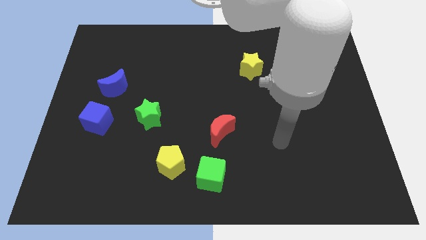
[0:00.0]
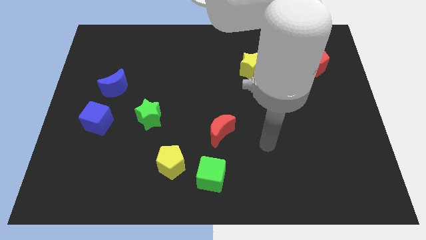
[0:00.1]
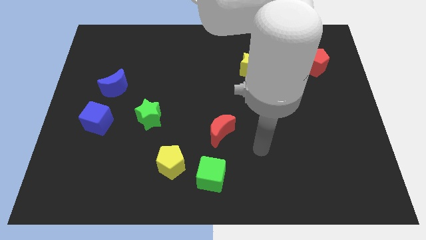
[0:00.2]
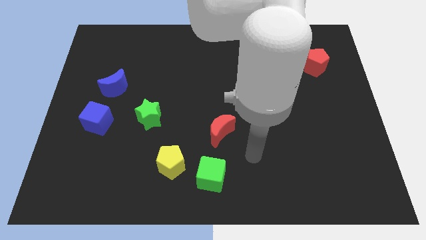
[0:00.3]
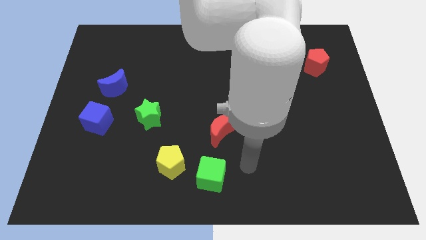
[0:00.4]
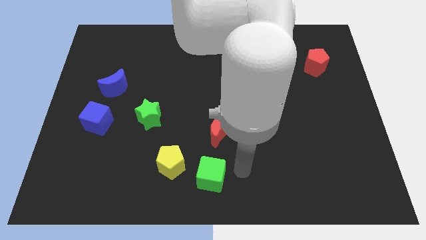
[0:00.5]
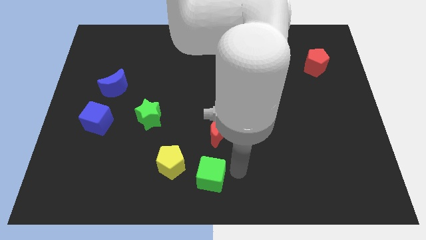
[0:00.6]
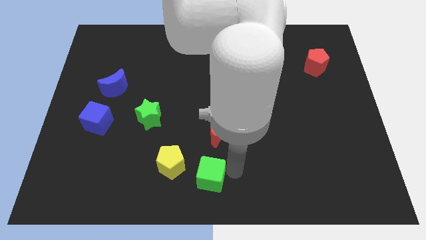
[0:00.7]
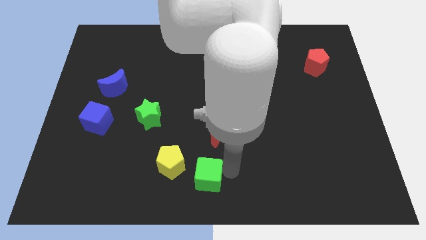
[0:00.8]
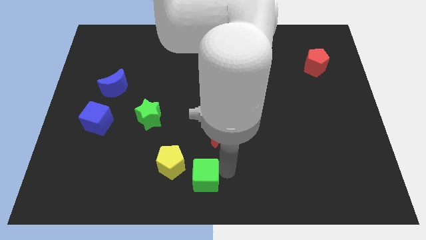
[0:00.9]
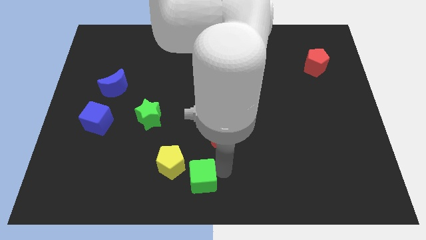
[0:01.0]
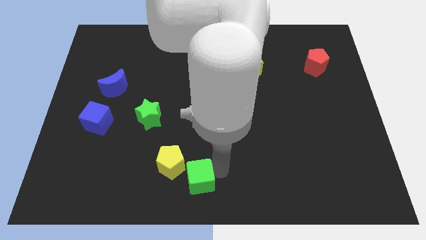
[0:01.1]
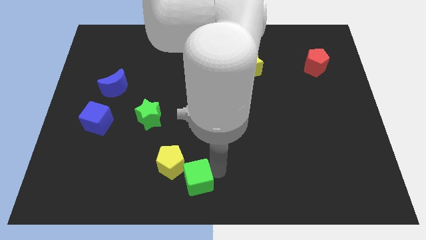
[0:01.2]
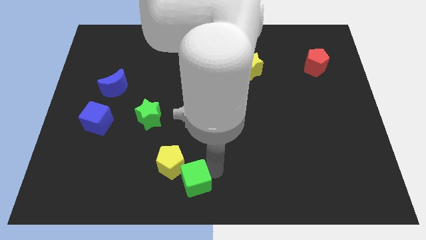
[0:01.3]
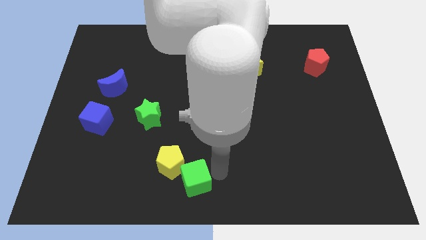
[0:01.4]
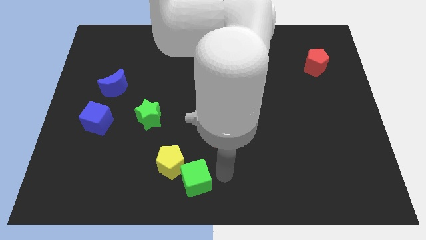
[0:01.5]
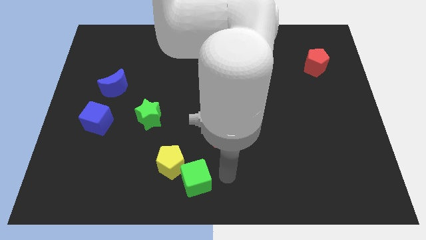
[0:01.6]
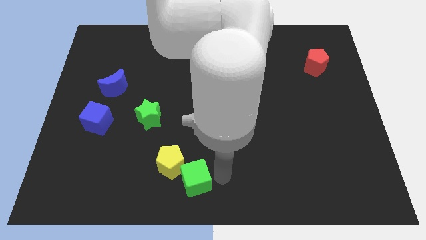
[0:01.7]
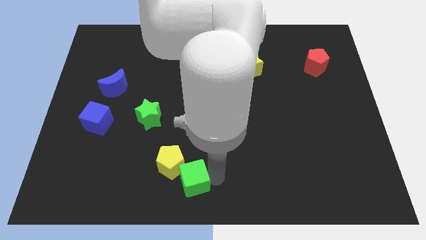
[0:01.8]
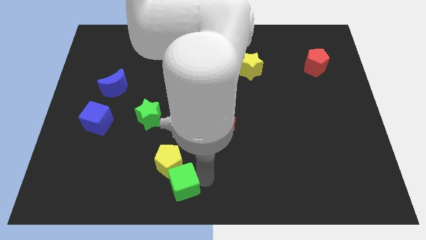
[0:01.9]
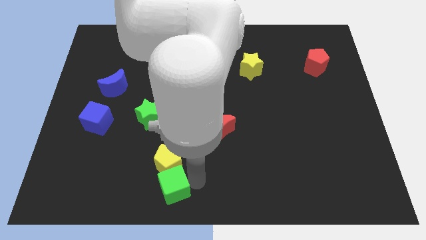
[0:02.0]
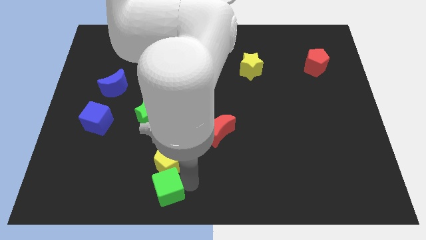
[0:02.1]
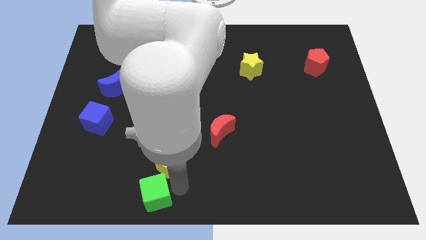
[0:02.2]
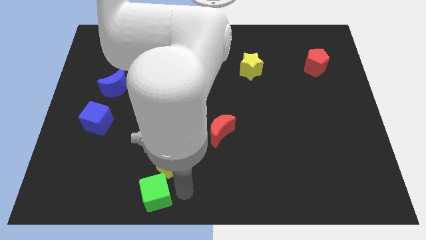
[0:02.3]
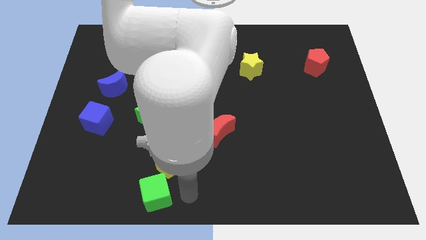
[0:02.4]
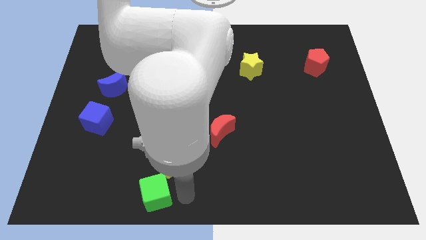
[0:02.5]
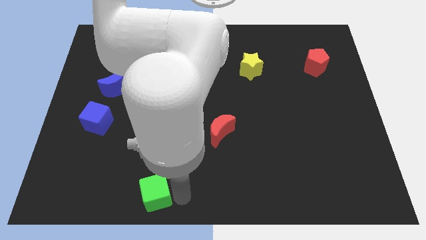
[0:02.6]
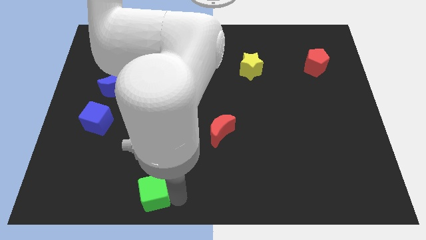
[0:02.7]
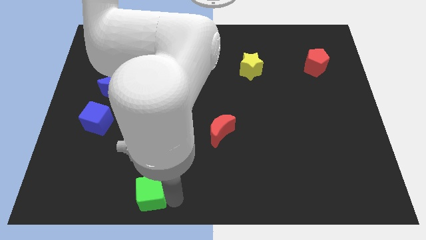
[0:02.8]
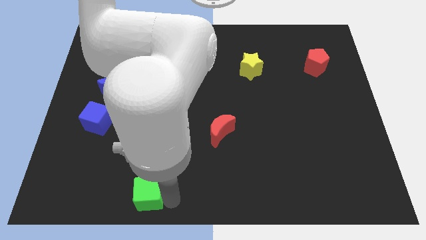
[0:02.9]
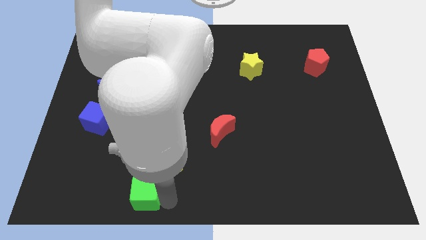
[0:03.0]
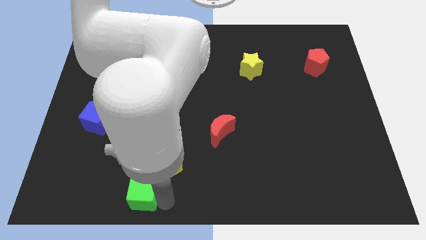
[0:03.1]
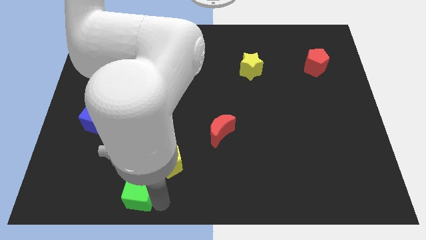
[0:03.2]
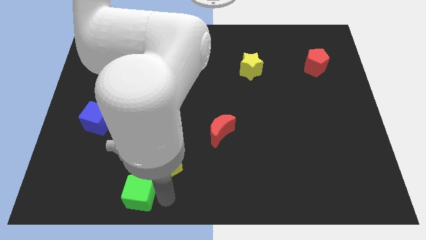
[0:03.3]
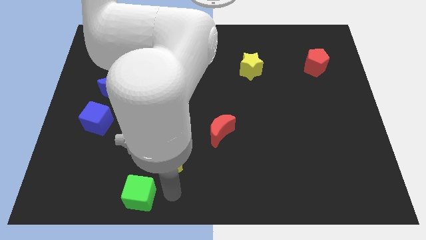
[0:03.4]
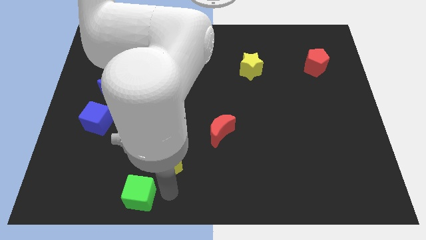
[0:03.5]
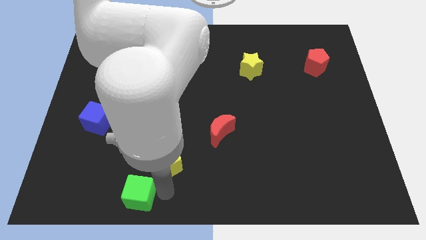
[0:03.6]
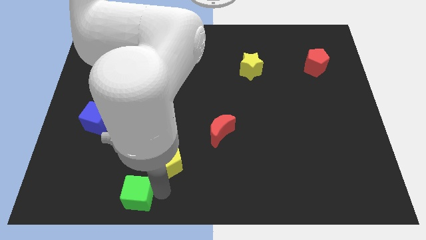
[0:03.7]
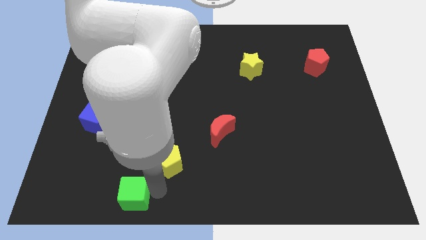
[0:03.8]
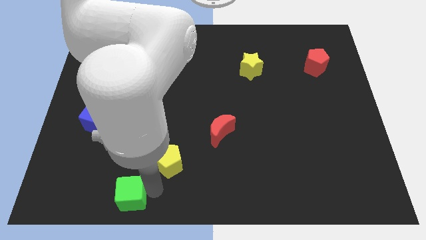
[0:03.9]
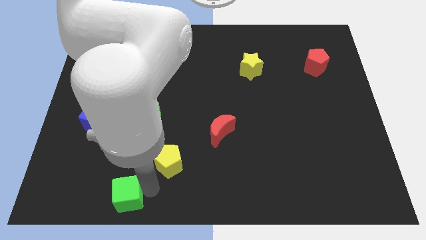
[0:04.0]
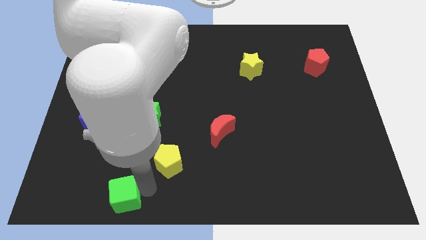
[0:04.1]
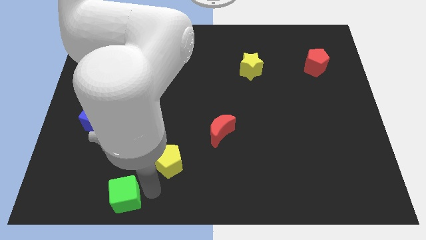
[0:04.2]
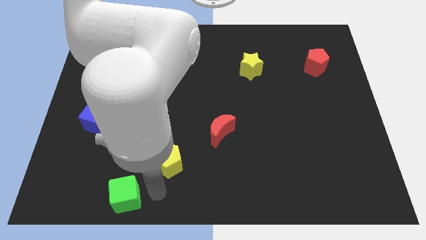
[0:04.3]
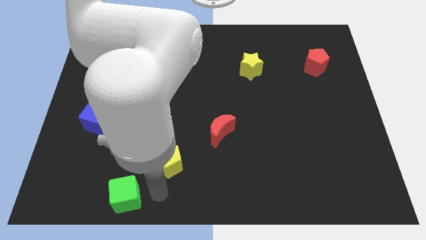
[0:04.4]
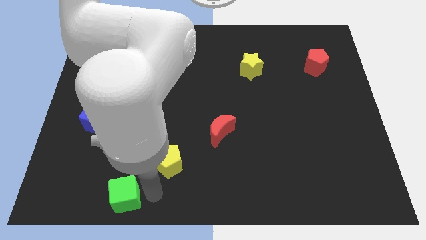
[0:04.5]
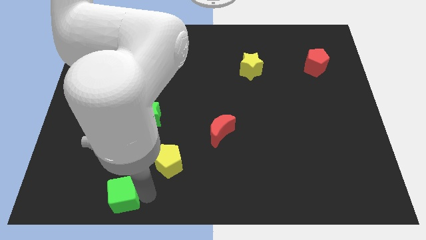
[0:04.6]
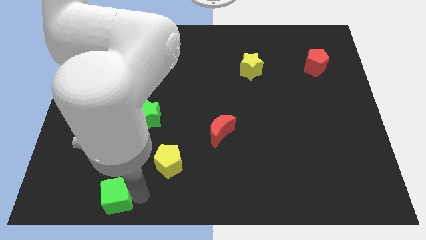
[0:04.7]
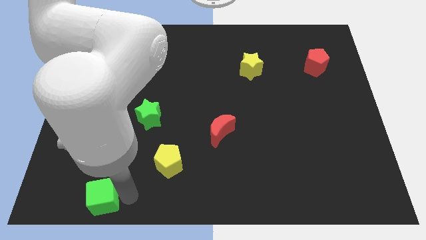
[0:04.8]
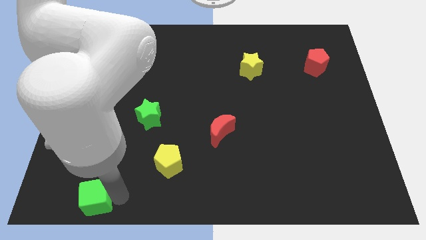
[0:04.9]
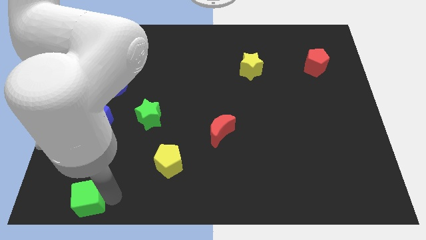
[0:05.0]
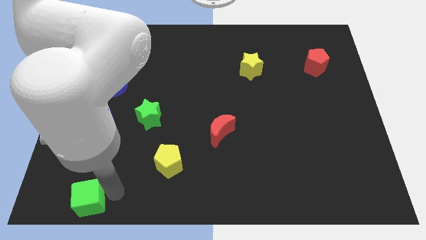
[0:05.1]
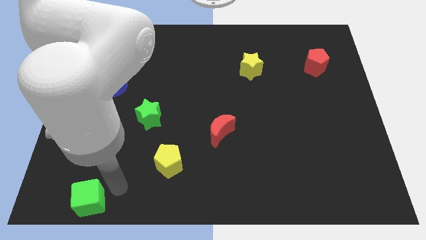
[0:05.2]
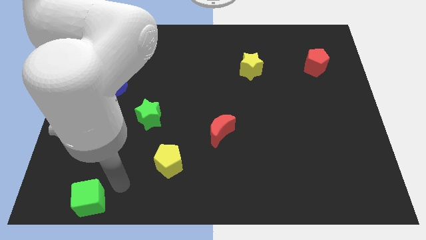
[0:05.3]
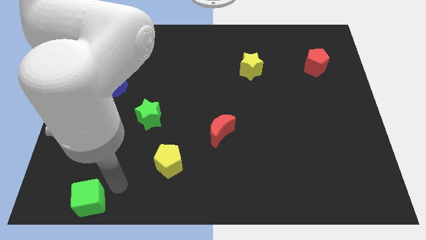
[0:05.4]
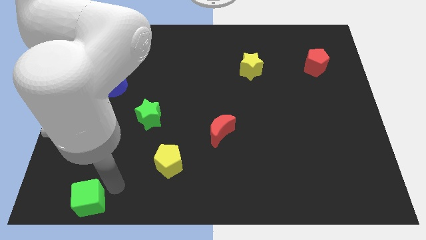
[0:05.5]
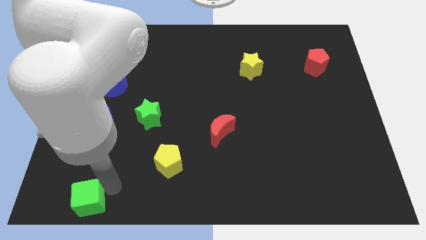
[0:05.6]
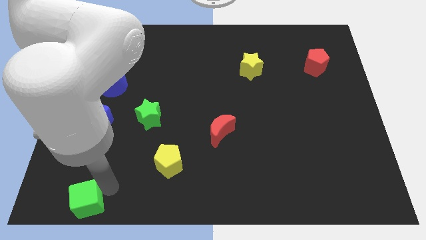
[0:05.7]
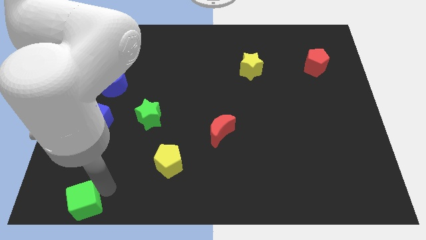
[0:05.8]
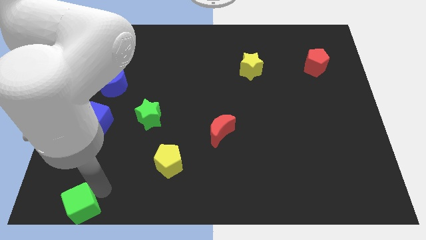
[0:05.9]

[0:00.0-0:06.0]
put the green cube to the bottom left
